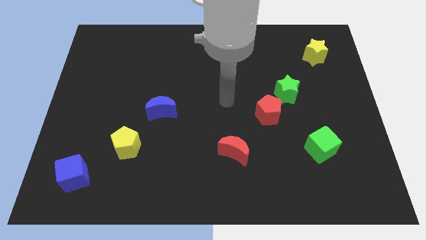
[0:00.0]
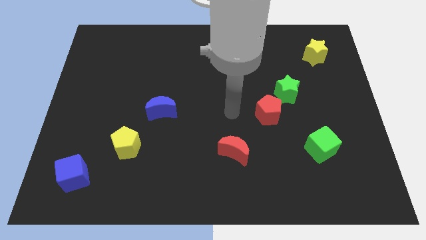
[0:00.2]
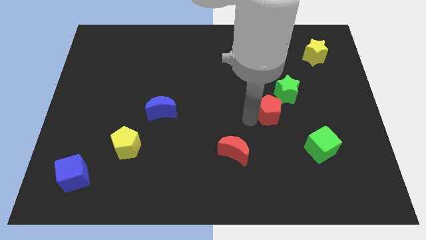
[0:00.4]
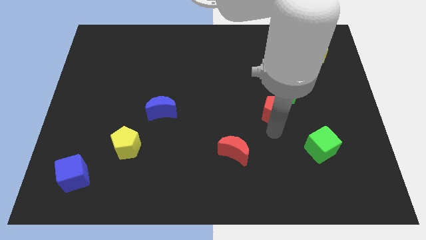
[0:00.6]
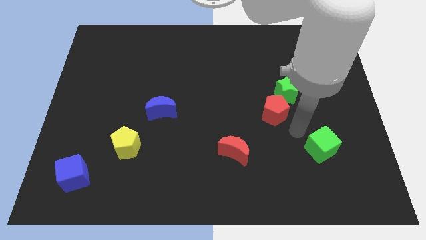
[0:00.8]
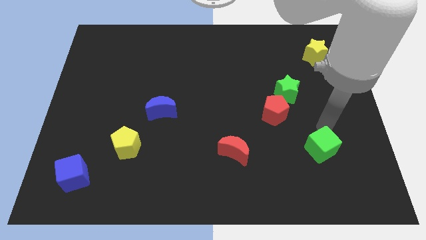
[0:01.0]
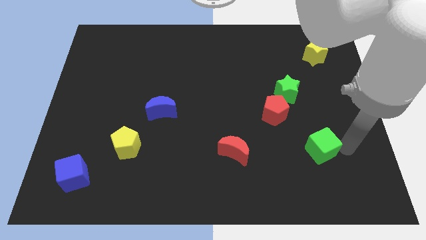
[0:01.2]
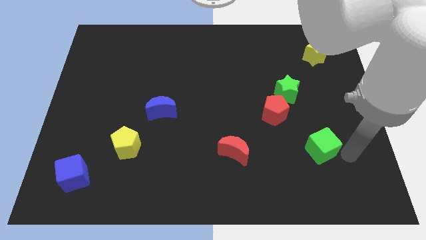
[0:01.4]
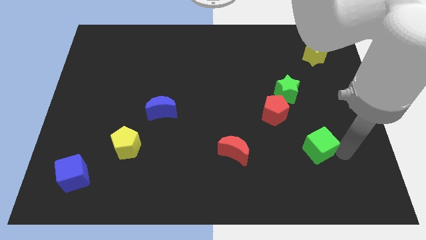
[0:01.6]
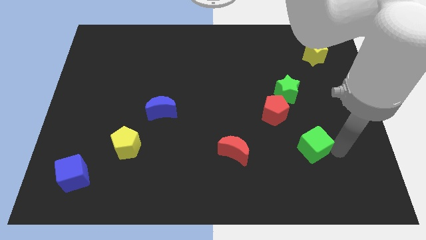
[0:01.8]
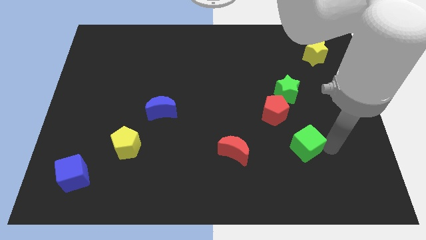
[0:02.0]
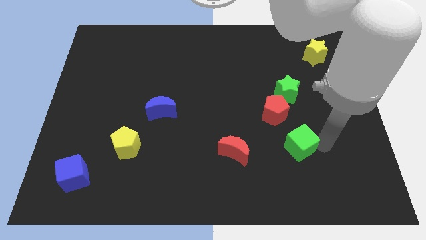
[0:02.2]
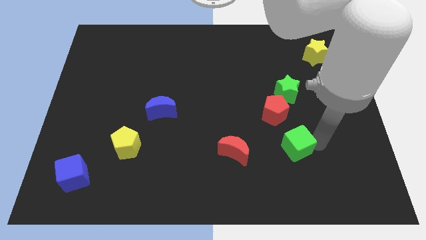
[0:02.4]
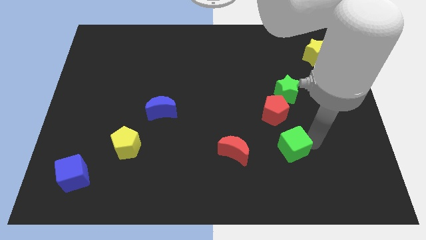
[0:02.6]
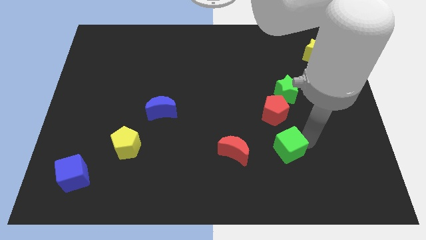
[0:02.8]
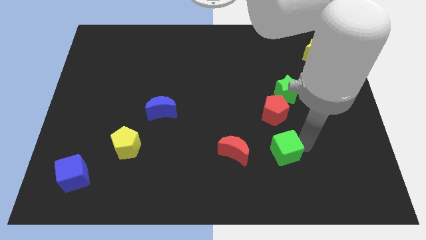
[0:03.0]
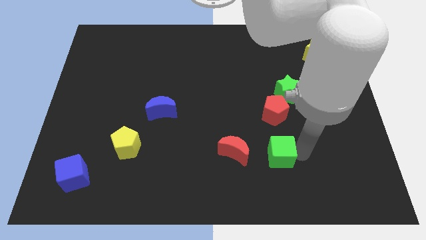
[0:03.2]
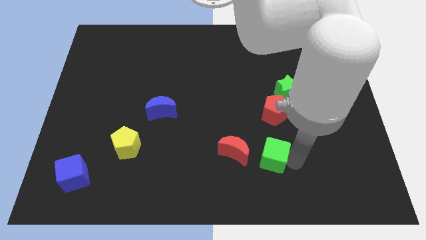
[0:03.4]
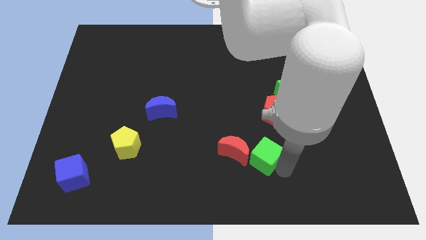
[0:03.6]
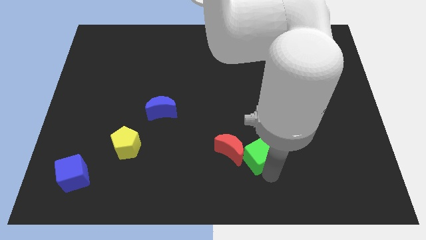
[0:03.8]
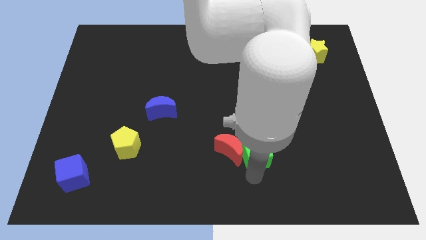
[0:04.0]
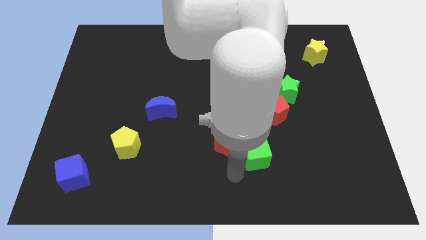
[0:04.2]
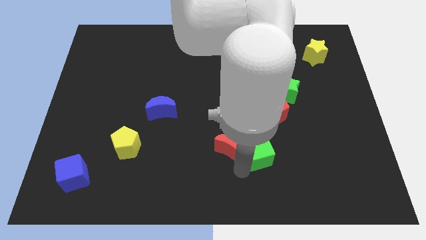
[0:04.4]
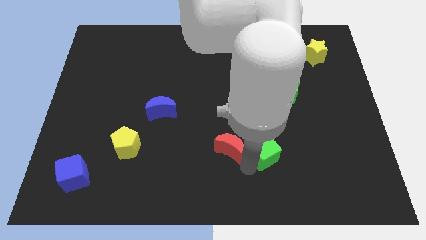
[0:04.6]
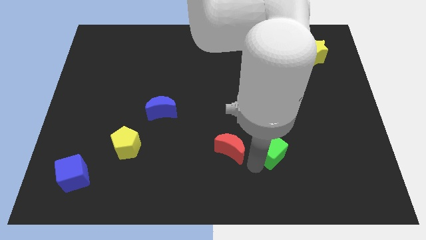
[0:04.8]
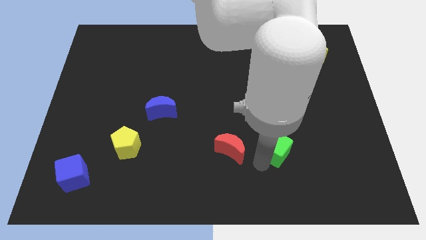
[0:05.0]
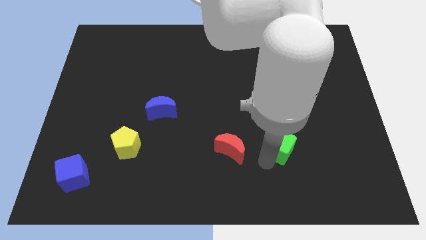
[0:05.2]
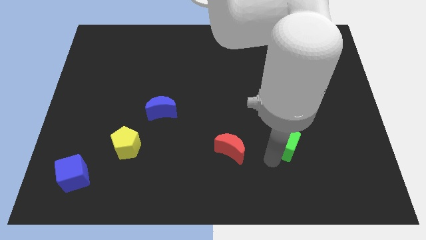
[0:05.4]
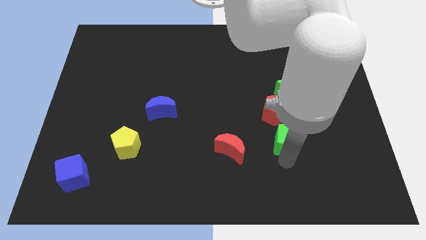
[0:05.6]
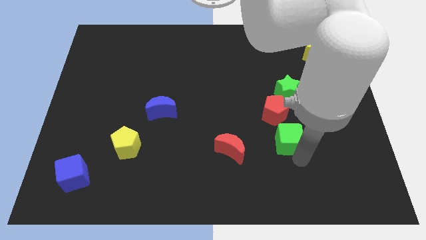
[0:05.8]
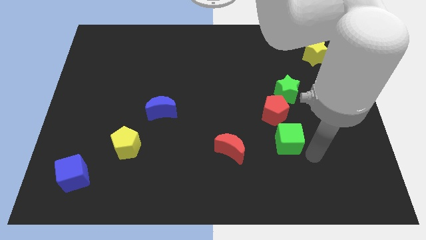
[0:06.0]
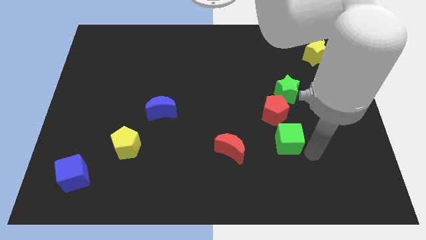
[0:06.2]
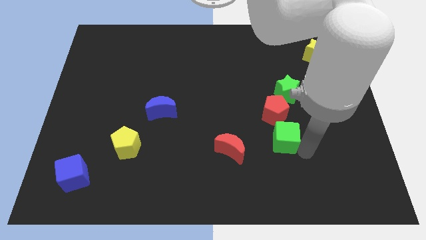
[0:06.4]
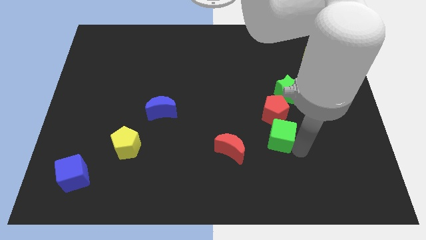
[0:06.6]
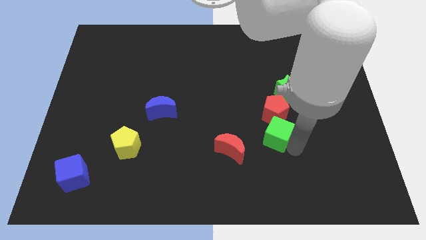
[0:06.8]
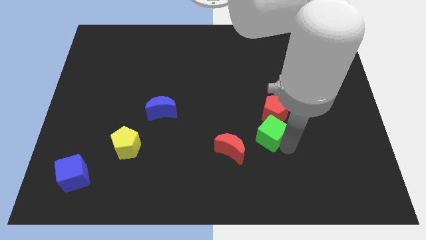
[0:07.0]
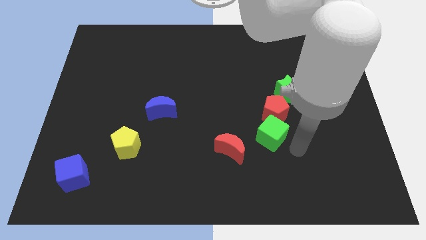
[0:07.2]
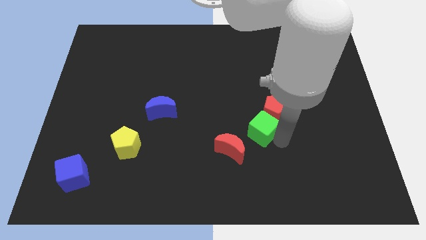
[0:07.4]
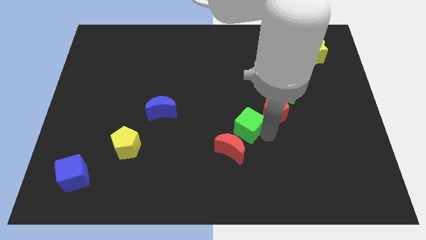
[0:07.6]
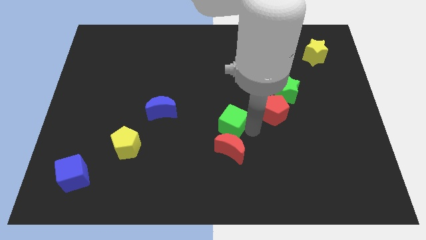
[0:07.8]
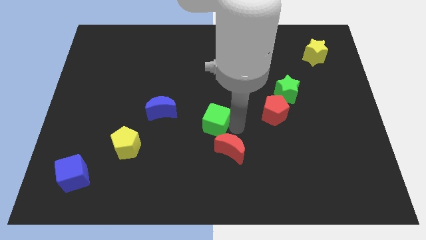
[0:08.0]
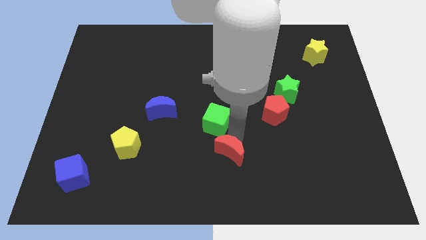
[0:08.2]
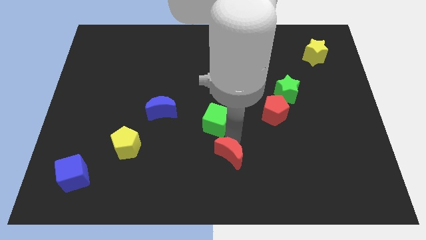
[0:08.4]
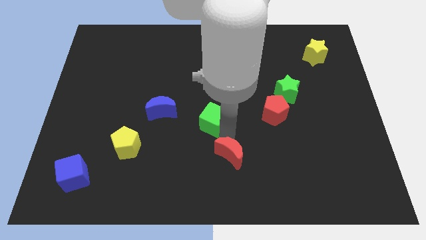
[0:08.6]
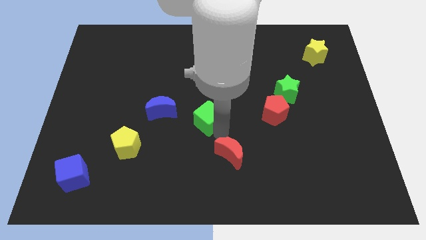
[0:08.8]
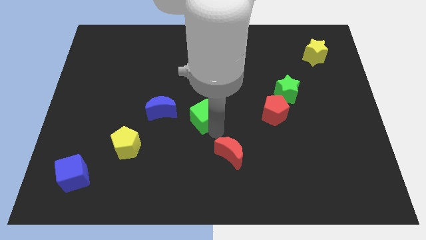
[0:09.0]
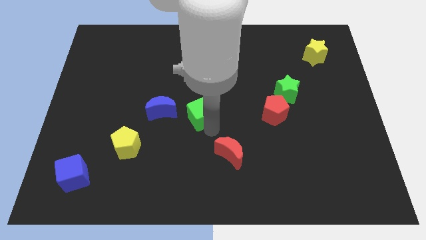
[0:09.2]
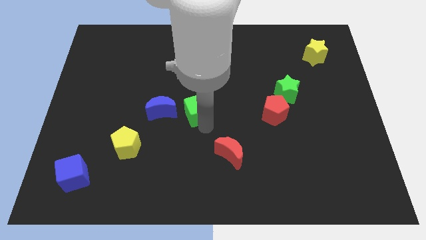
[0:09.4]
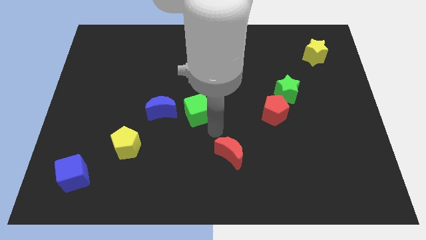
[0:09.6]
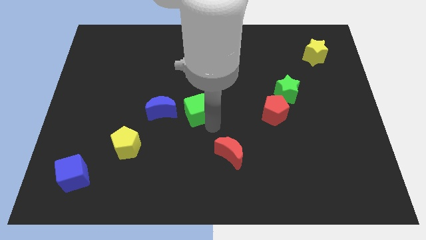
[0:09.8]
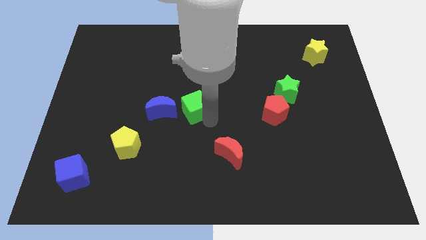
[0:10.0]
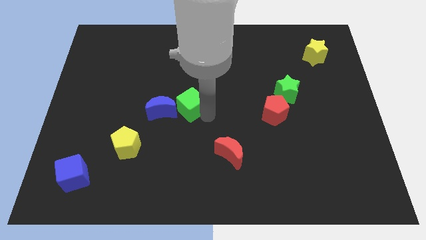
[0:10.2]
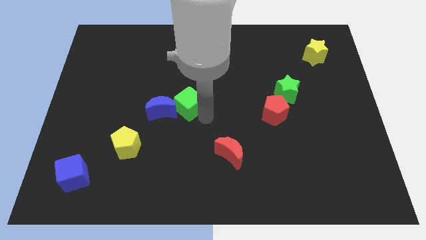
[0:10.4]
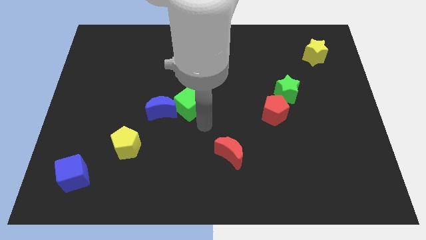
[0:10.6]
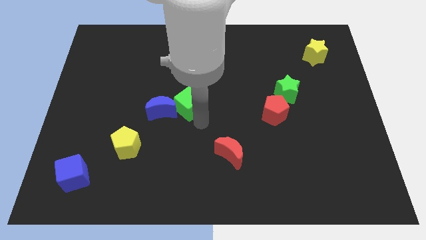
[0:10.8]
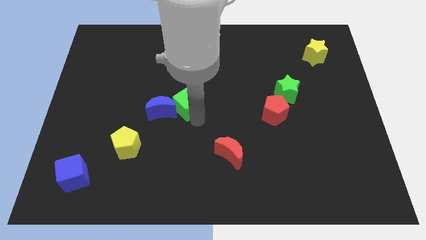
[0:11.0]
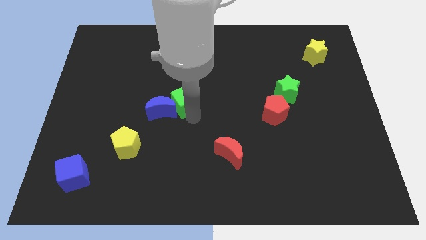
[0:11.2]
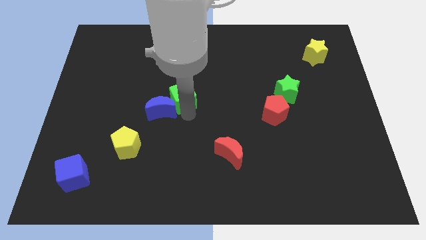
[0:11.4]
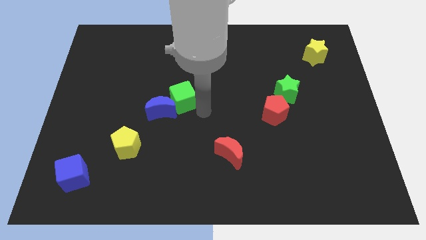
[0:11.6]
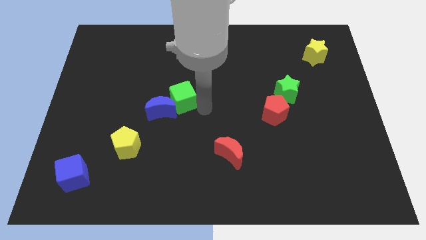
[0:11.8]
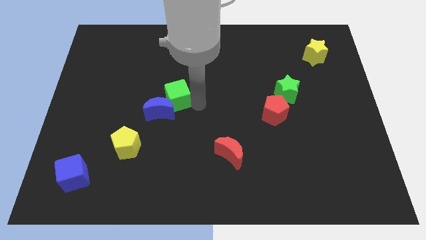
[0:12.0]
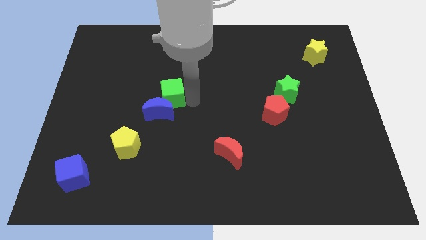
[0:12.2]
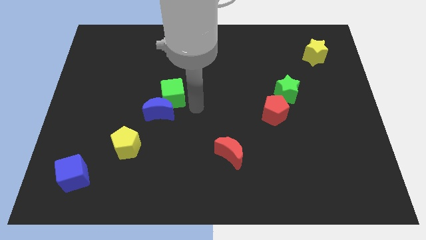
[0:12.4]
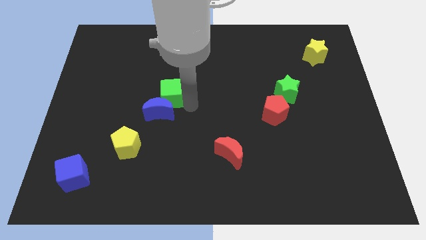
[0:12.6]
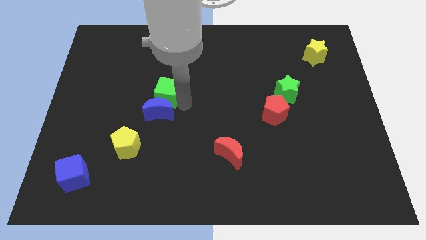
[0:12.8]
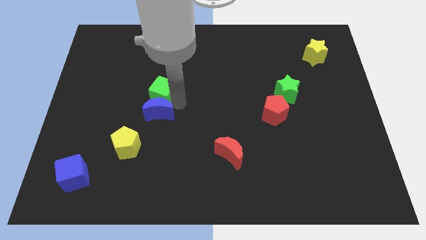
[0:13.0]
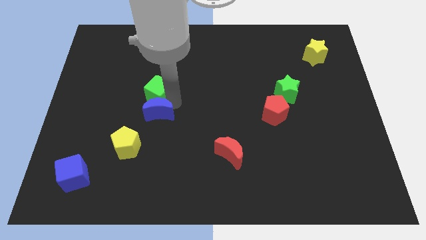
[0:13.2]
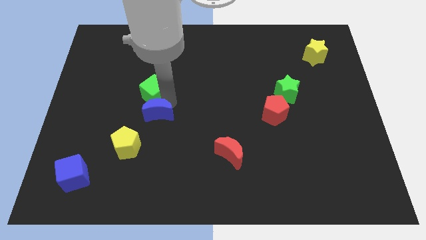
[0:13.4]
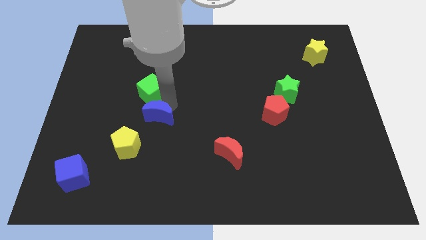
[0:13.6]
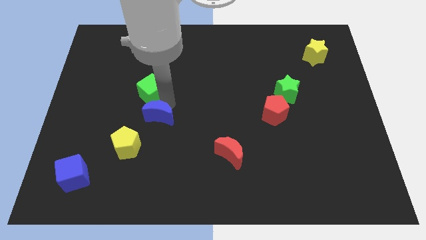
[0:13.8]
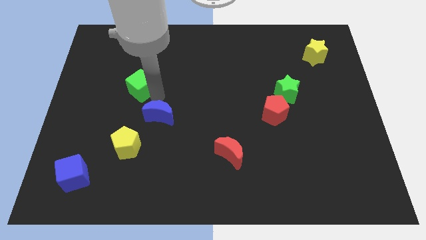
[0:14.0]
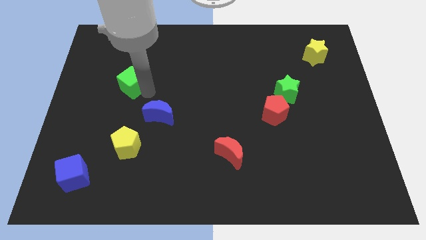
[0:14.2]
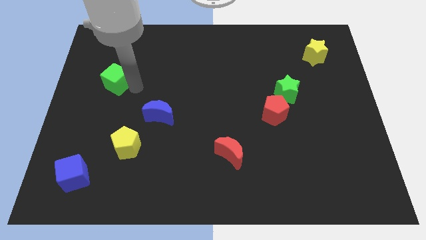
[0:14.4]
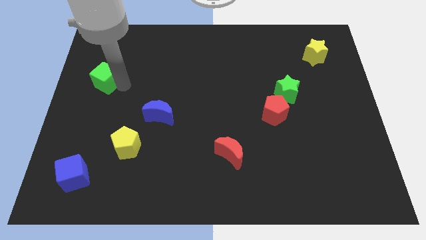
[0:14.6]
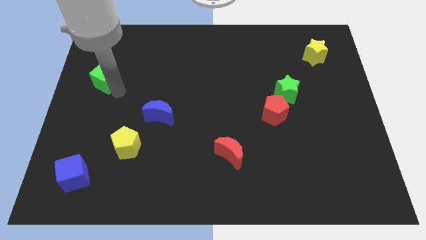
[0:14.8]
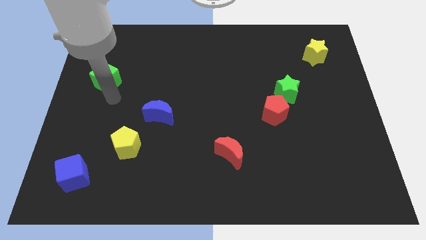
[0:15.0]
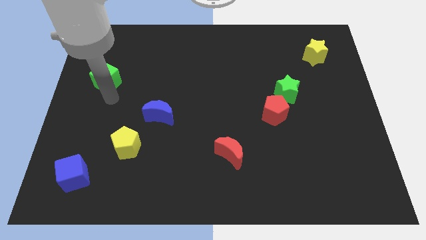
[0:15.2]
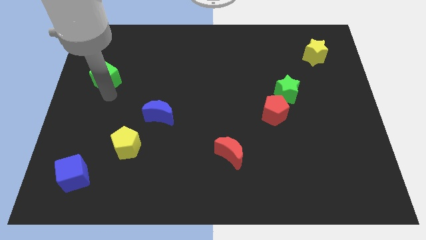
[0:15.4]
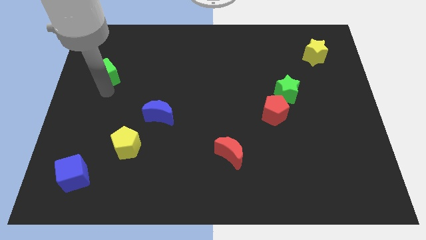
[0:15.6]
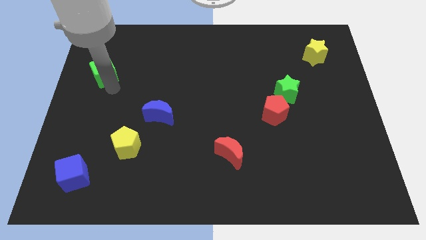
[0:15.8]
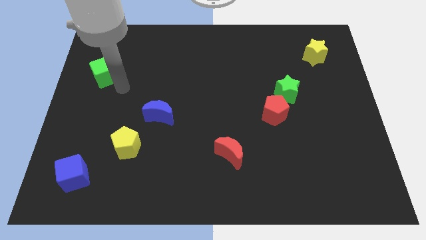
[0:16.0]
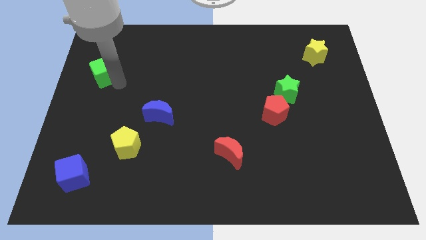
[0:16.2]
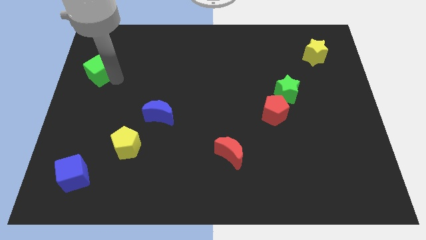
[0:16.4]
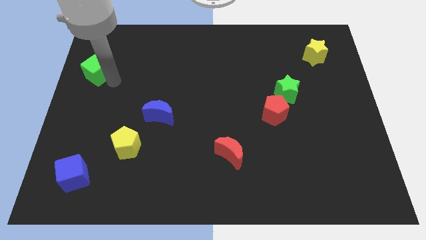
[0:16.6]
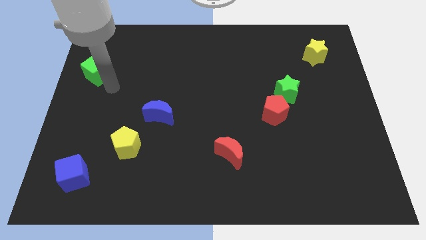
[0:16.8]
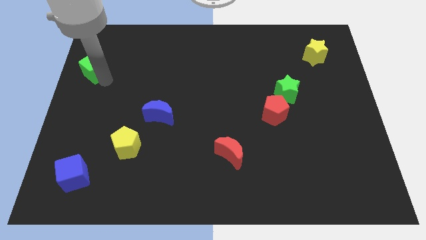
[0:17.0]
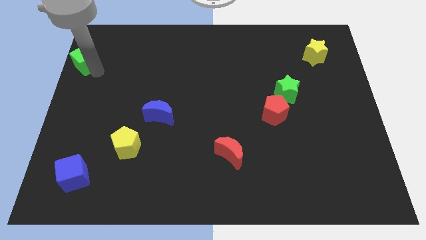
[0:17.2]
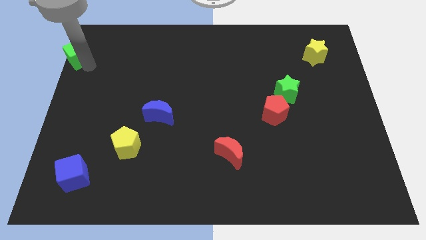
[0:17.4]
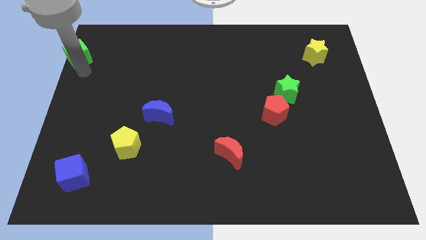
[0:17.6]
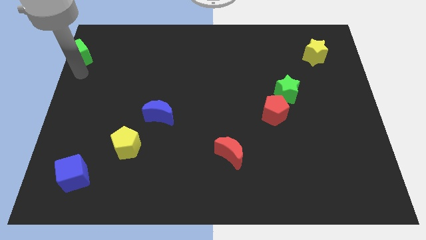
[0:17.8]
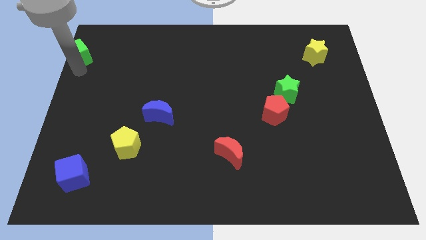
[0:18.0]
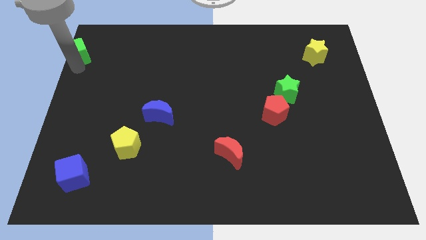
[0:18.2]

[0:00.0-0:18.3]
put the green cube to the top left
